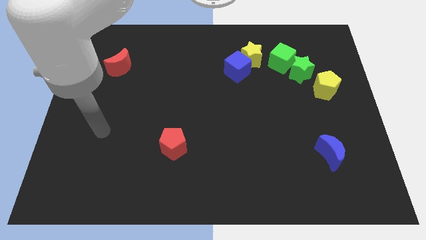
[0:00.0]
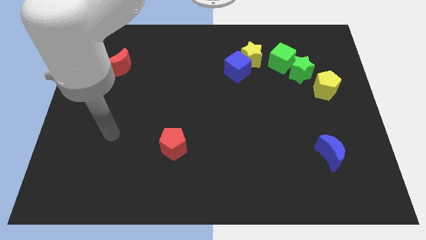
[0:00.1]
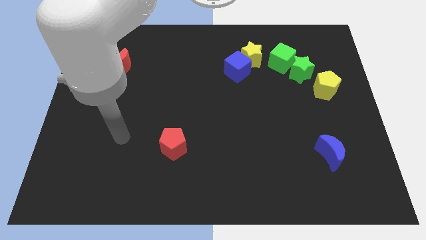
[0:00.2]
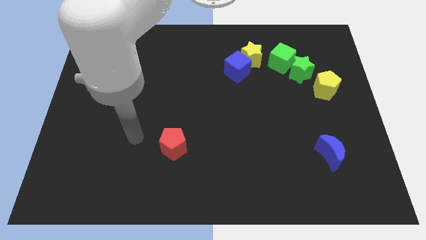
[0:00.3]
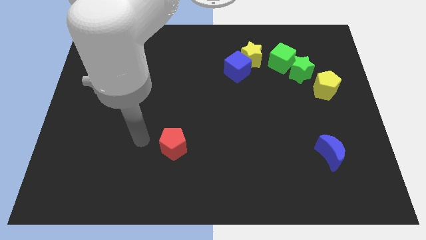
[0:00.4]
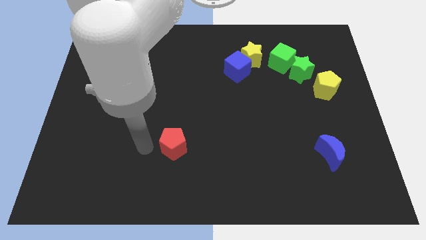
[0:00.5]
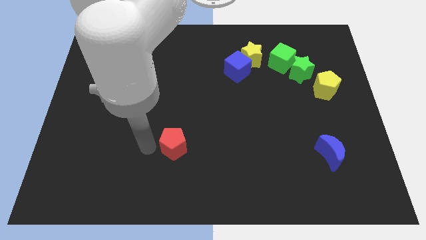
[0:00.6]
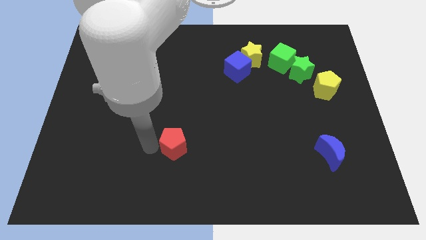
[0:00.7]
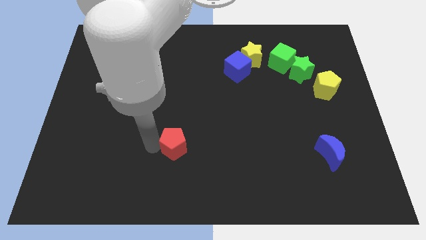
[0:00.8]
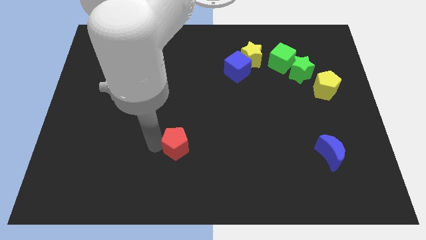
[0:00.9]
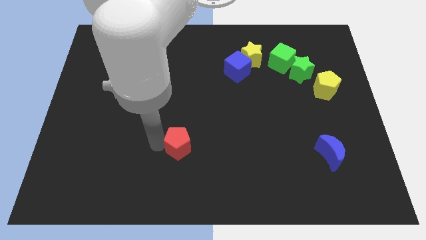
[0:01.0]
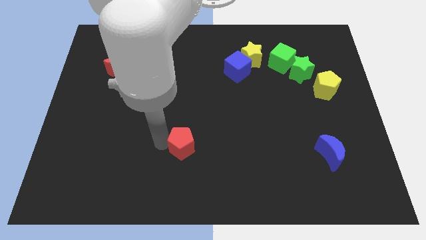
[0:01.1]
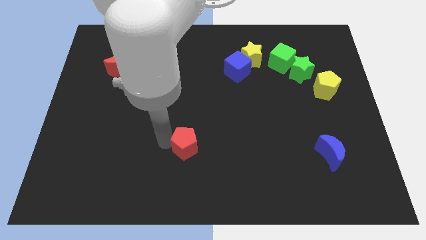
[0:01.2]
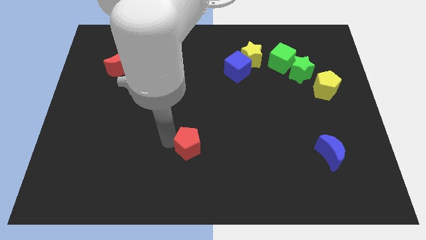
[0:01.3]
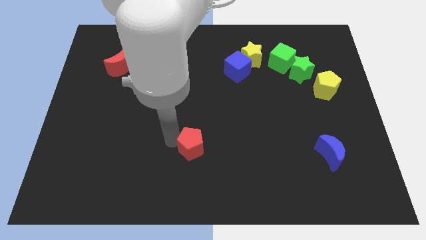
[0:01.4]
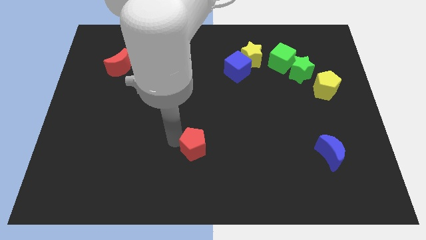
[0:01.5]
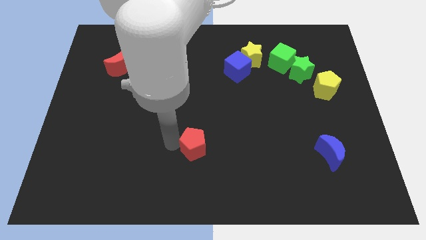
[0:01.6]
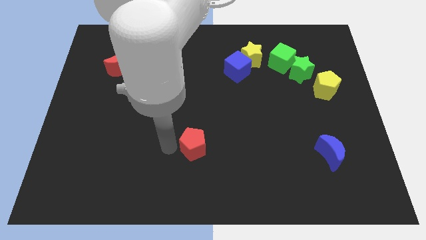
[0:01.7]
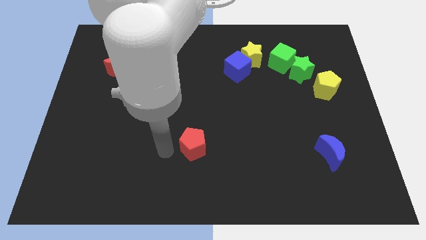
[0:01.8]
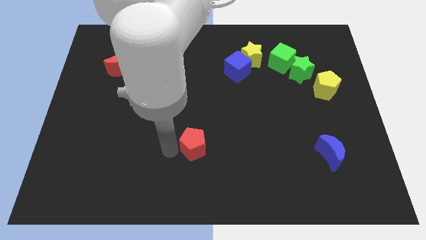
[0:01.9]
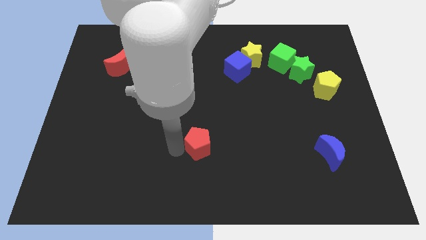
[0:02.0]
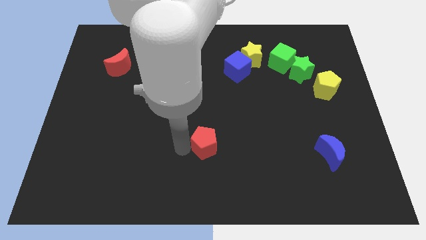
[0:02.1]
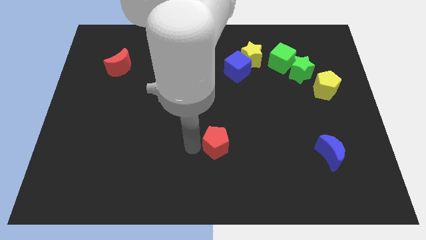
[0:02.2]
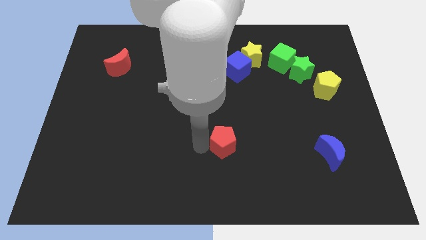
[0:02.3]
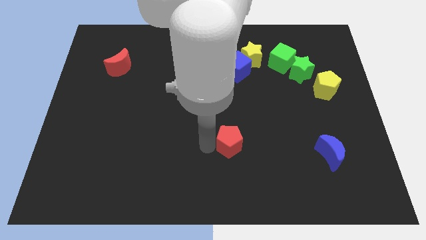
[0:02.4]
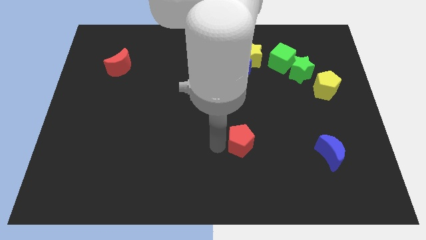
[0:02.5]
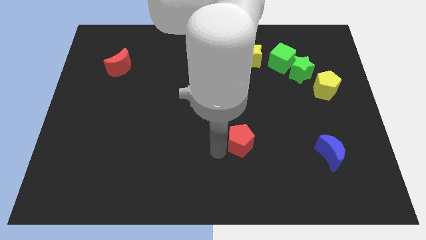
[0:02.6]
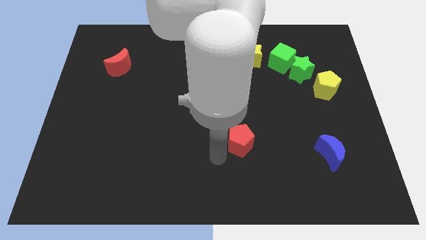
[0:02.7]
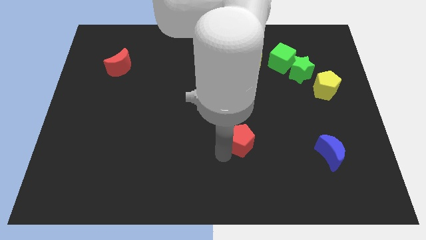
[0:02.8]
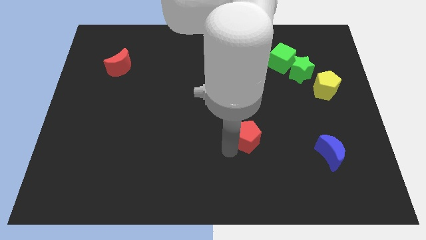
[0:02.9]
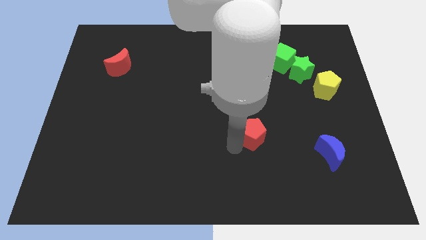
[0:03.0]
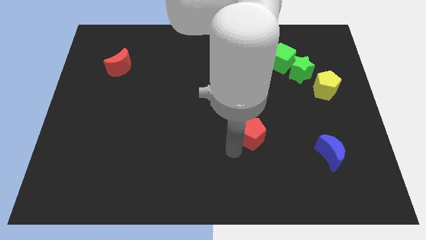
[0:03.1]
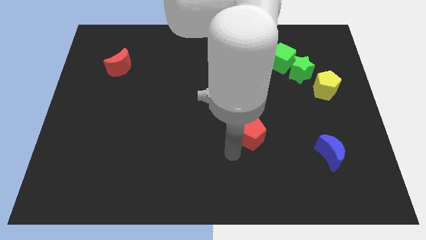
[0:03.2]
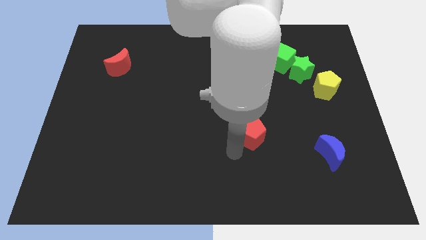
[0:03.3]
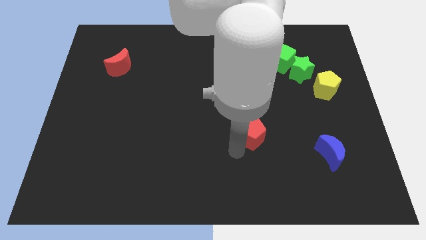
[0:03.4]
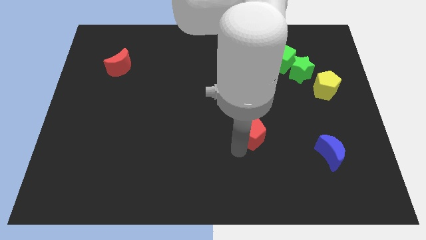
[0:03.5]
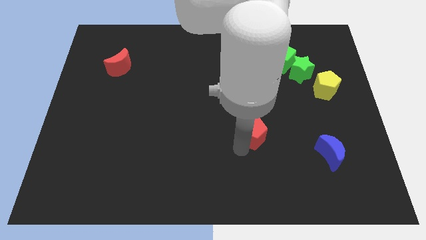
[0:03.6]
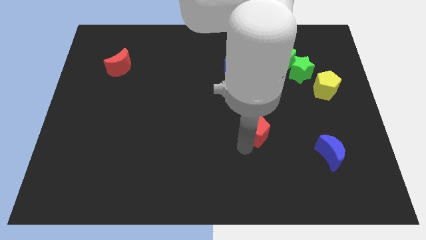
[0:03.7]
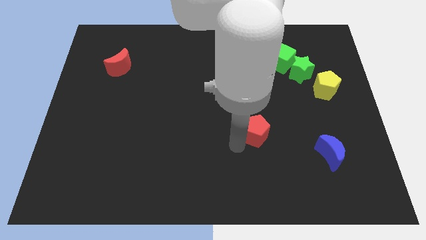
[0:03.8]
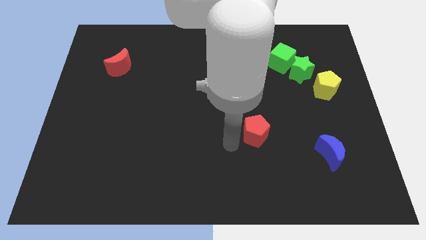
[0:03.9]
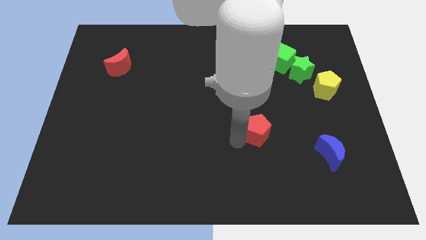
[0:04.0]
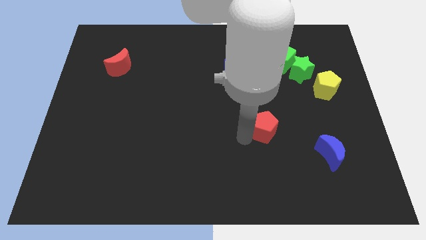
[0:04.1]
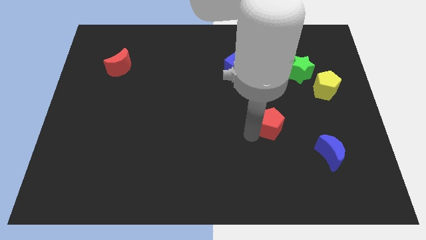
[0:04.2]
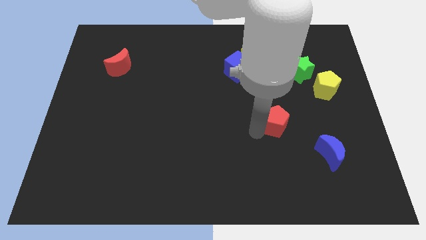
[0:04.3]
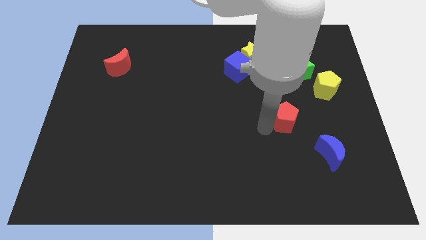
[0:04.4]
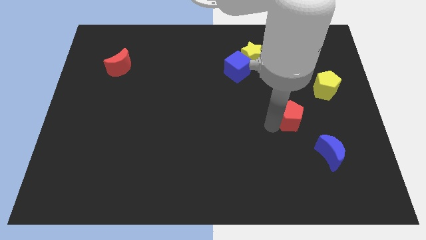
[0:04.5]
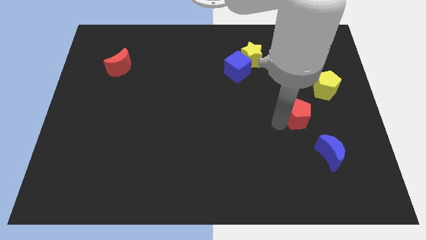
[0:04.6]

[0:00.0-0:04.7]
move the red pentagon to the bottom side of the green star

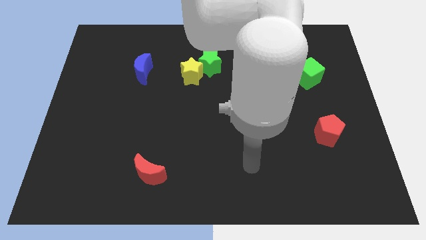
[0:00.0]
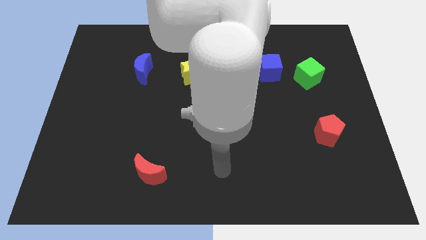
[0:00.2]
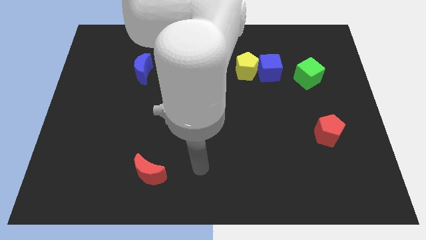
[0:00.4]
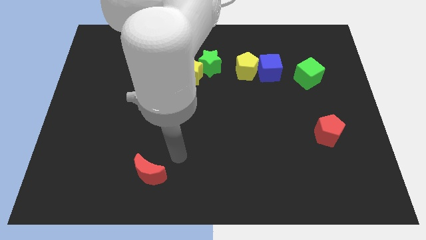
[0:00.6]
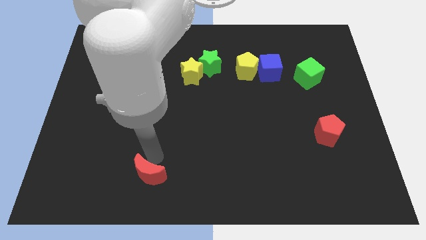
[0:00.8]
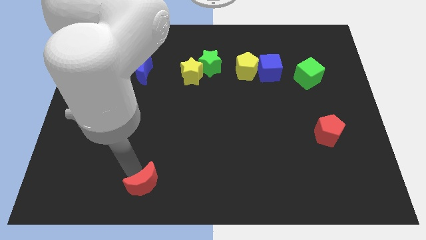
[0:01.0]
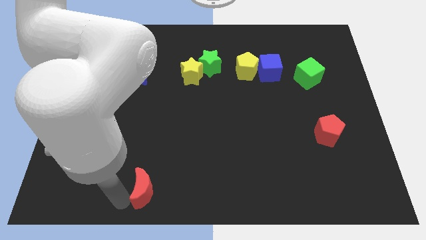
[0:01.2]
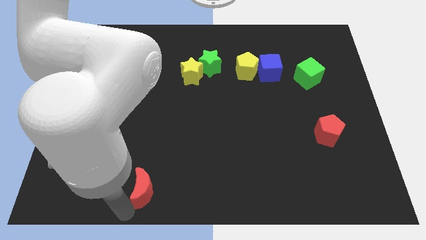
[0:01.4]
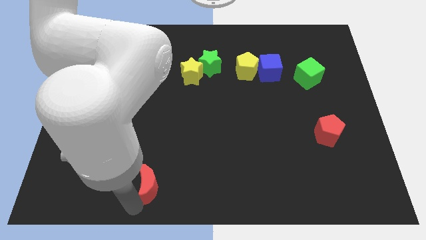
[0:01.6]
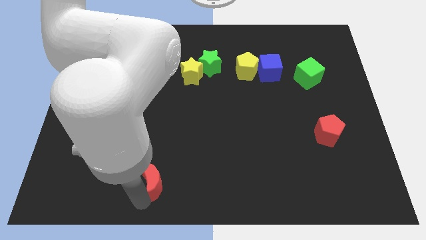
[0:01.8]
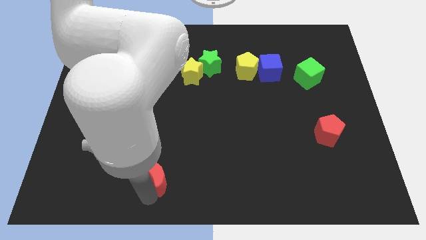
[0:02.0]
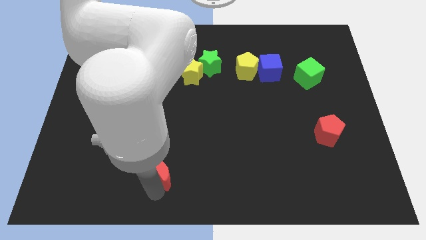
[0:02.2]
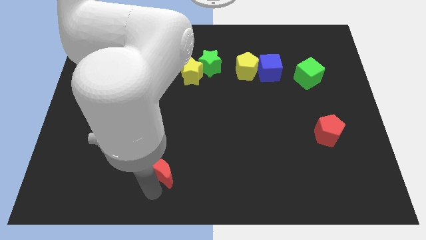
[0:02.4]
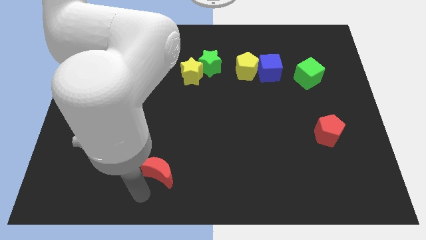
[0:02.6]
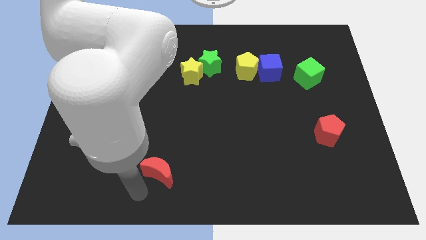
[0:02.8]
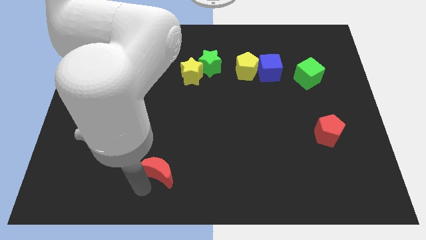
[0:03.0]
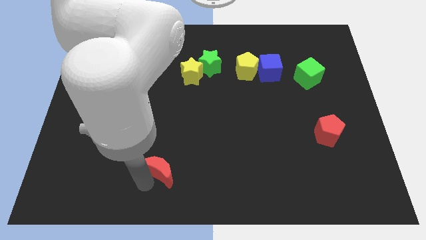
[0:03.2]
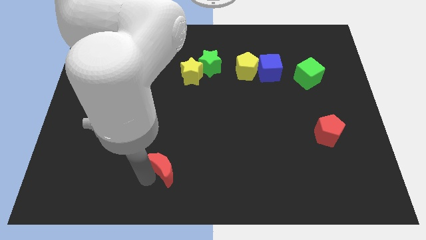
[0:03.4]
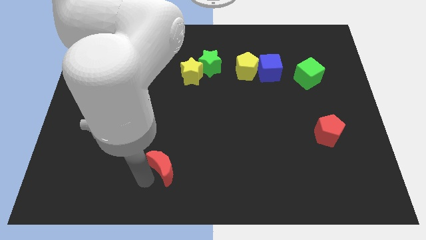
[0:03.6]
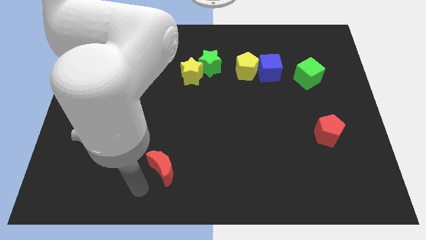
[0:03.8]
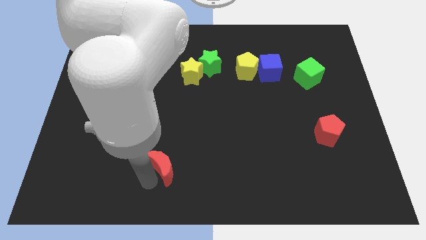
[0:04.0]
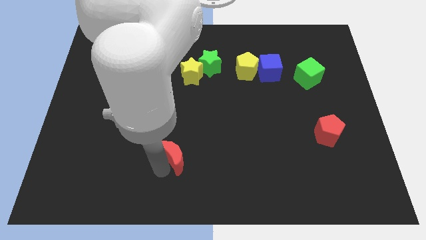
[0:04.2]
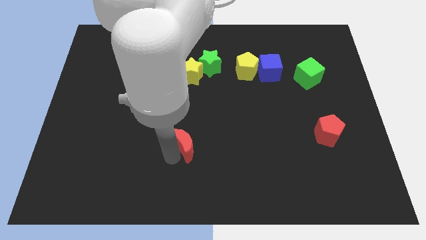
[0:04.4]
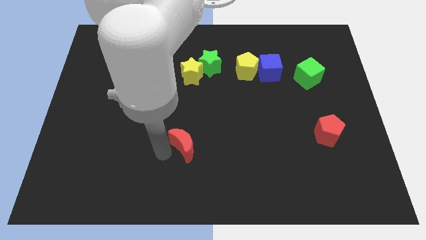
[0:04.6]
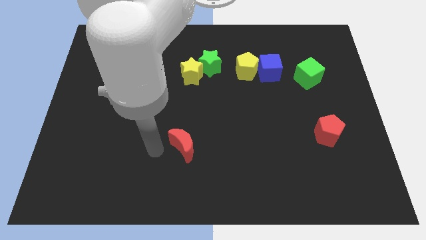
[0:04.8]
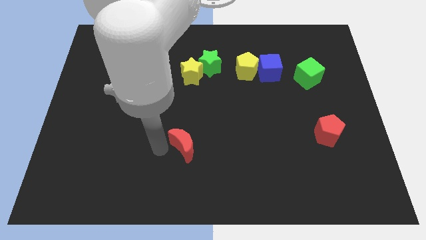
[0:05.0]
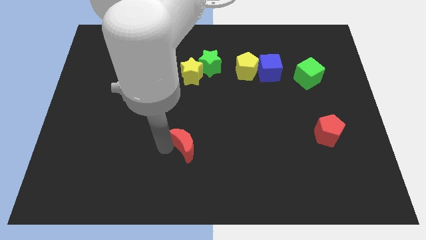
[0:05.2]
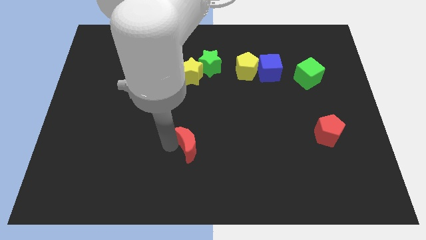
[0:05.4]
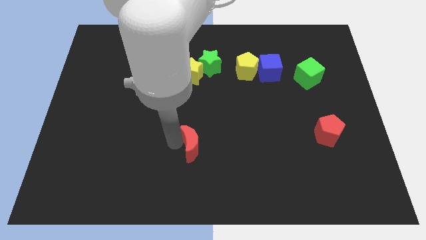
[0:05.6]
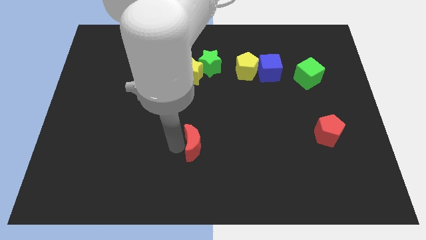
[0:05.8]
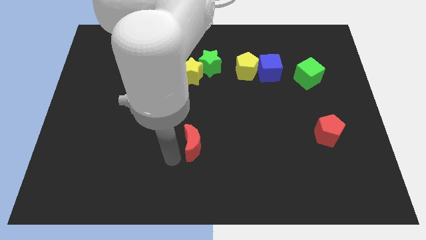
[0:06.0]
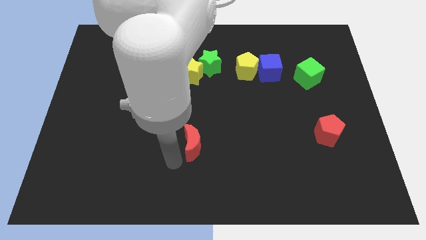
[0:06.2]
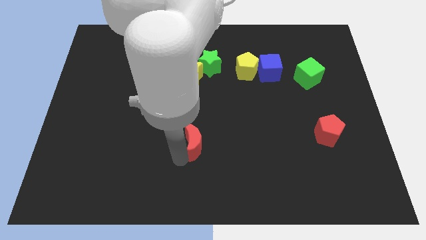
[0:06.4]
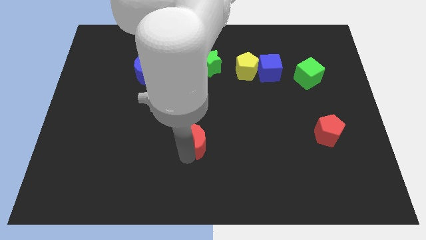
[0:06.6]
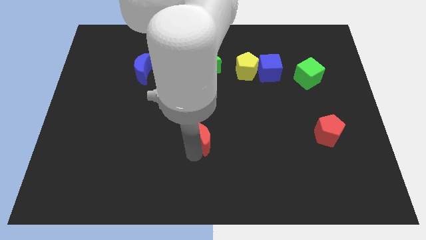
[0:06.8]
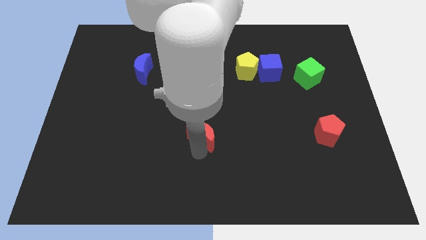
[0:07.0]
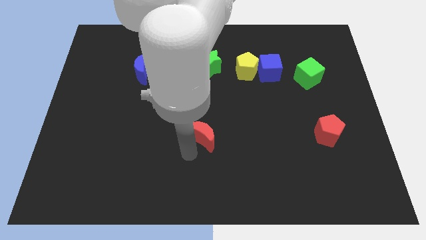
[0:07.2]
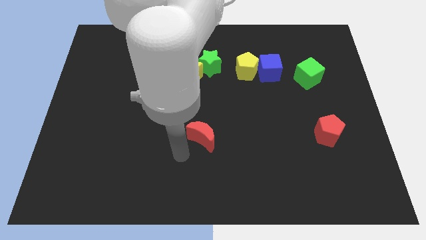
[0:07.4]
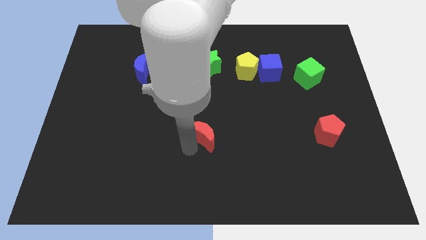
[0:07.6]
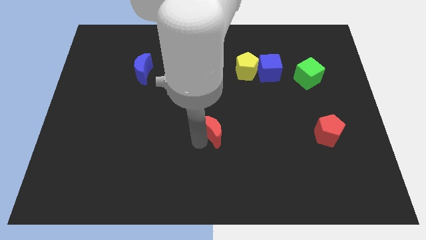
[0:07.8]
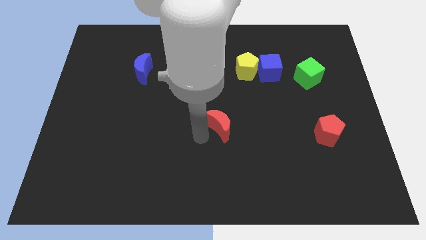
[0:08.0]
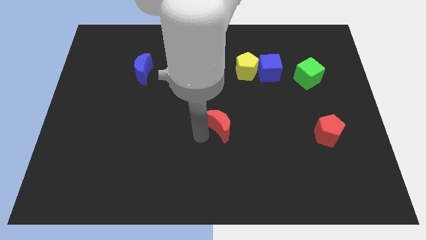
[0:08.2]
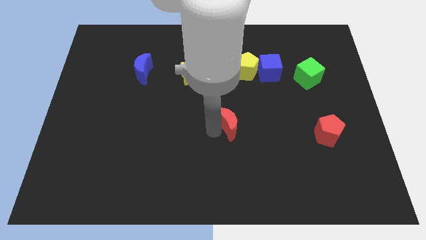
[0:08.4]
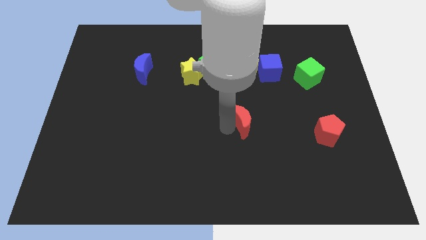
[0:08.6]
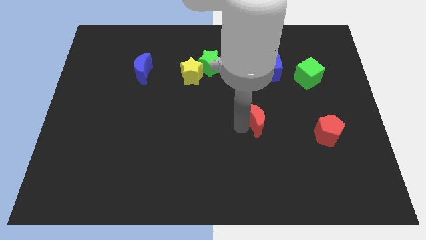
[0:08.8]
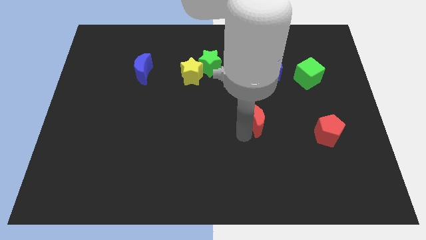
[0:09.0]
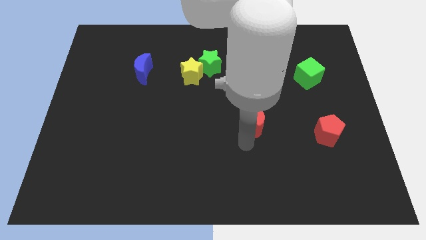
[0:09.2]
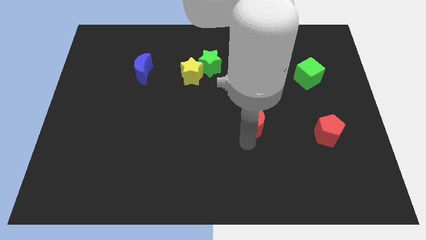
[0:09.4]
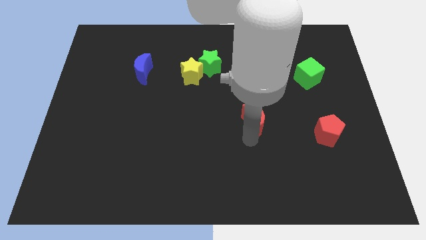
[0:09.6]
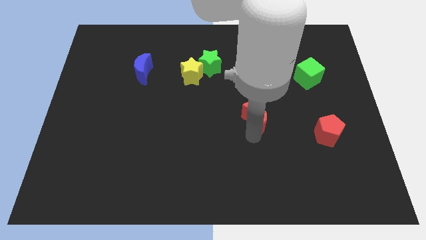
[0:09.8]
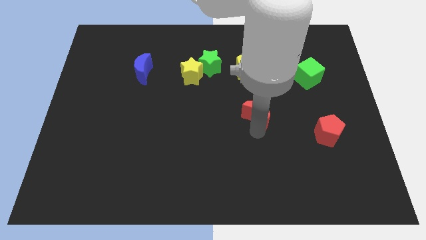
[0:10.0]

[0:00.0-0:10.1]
slide the red moon to the bottom side of the blue cube
